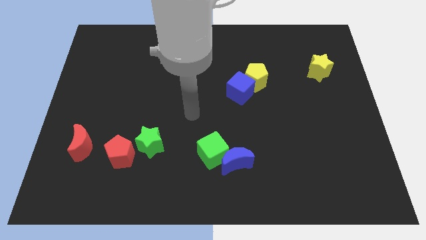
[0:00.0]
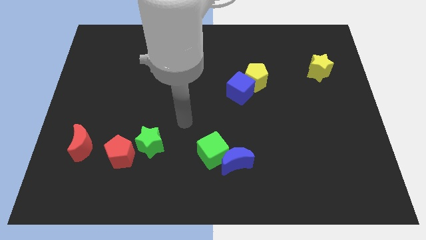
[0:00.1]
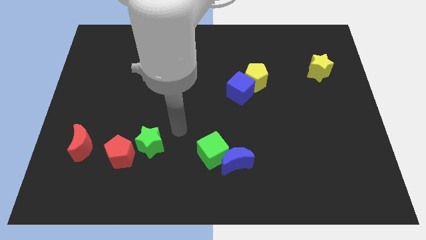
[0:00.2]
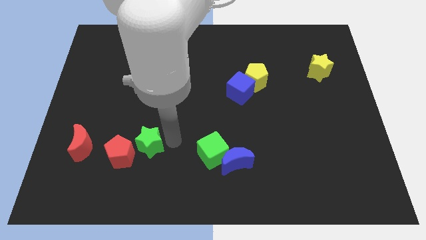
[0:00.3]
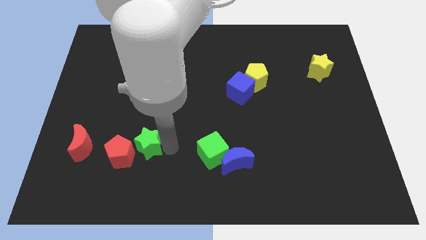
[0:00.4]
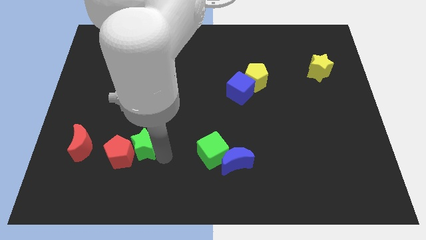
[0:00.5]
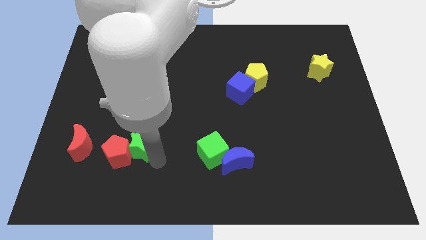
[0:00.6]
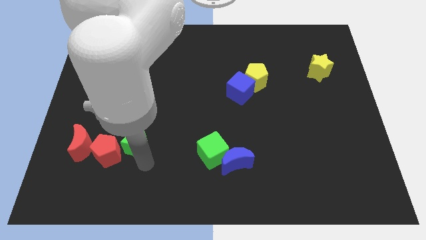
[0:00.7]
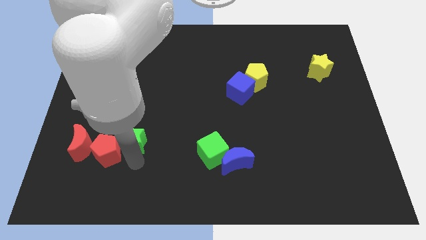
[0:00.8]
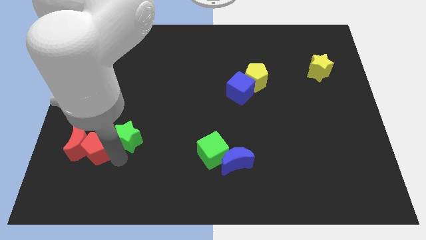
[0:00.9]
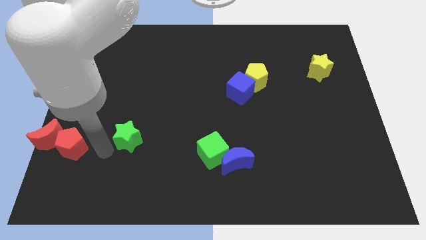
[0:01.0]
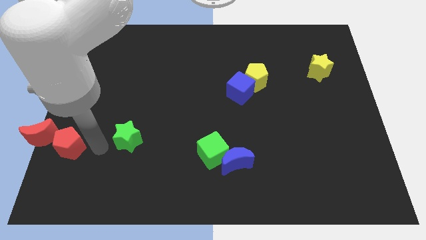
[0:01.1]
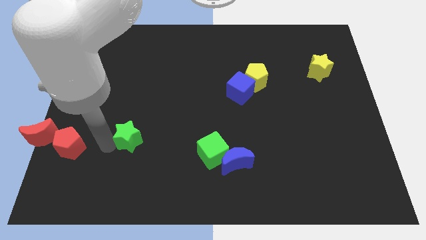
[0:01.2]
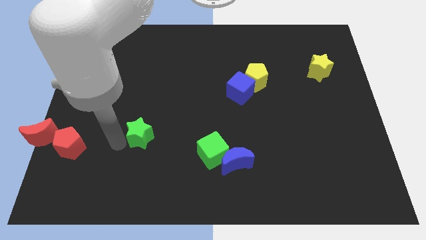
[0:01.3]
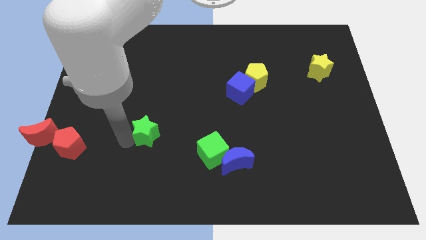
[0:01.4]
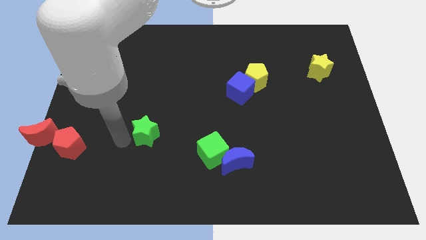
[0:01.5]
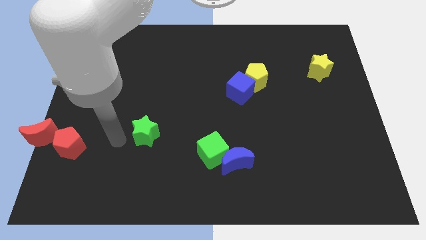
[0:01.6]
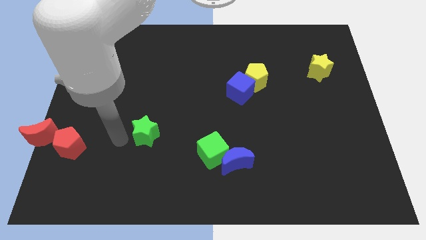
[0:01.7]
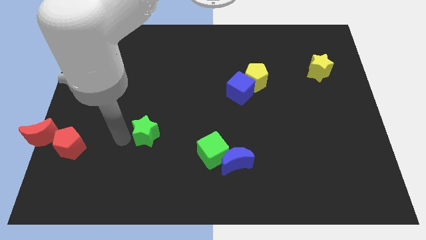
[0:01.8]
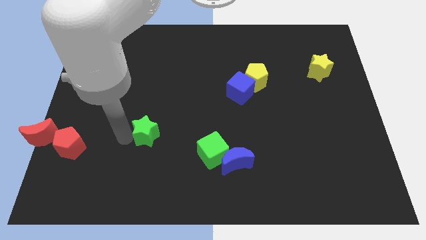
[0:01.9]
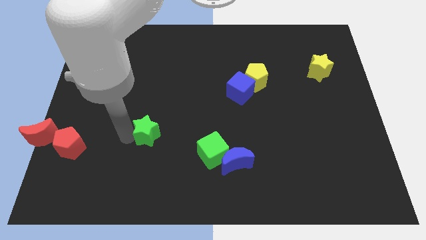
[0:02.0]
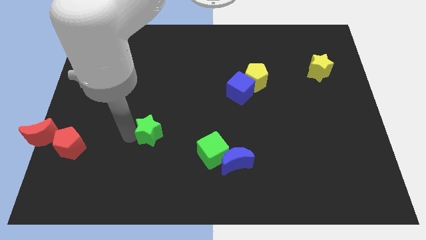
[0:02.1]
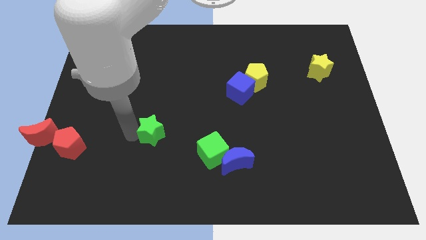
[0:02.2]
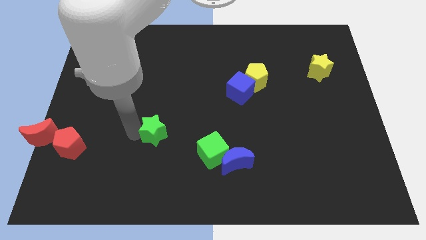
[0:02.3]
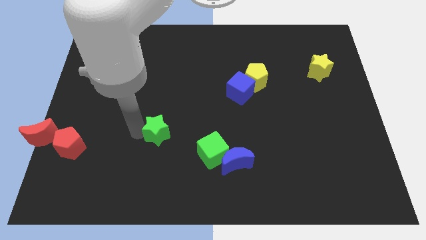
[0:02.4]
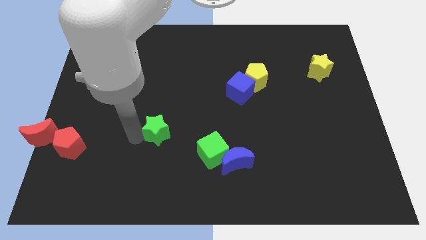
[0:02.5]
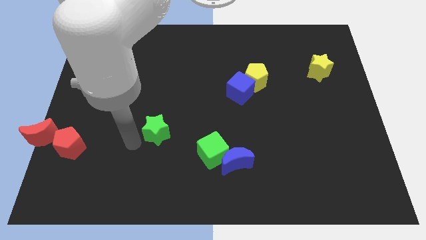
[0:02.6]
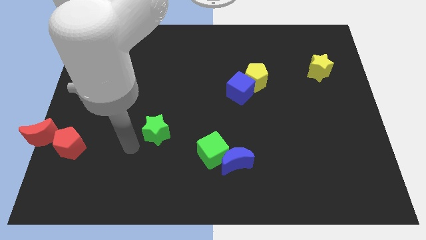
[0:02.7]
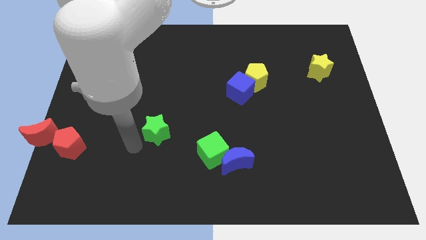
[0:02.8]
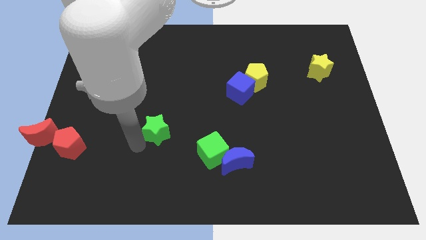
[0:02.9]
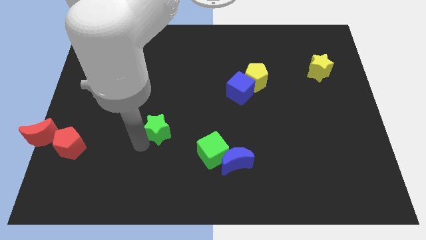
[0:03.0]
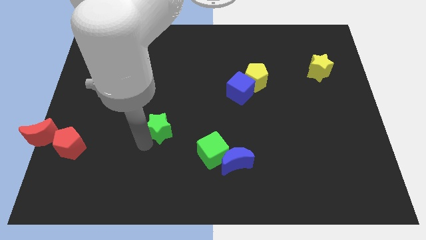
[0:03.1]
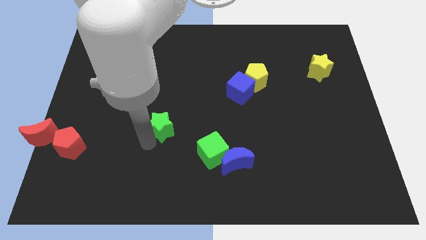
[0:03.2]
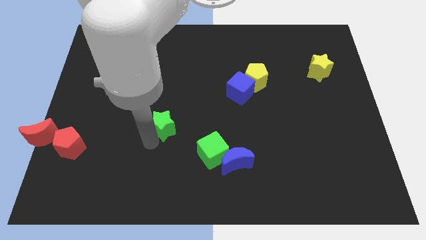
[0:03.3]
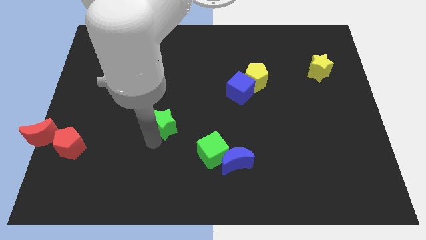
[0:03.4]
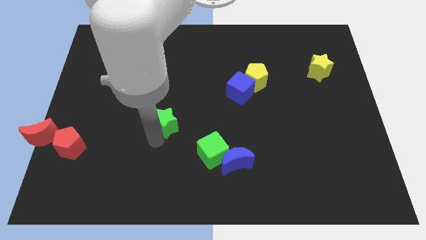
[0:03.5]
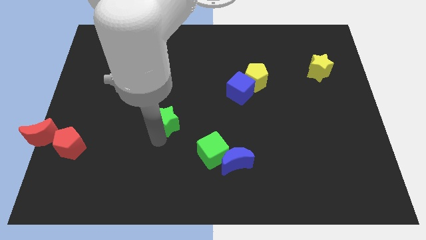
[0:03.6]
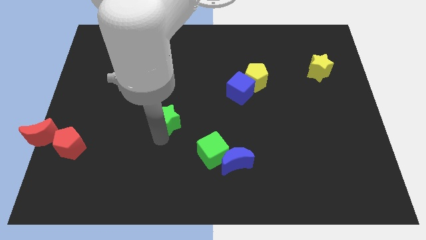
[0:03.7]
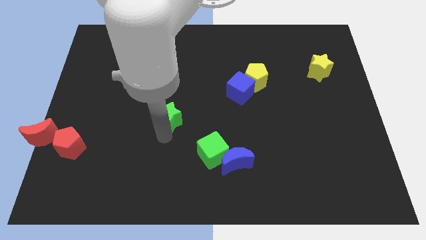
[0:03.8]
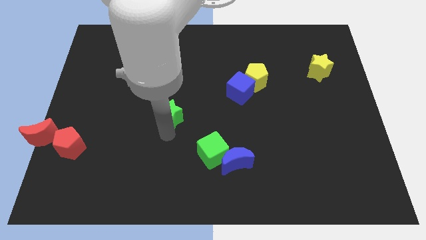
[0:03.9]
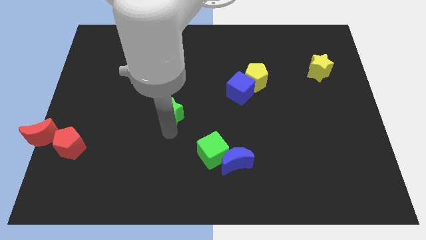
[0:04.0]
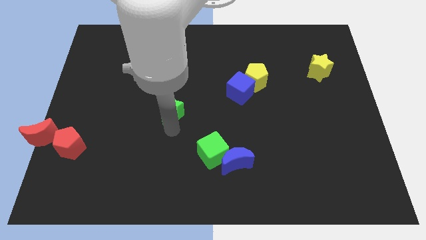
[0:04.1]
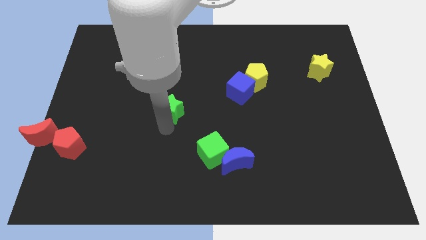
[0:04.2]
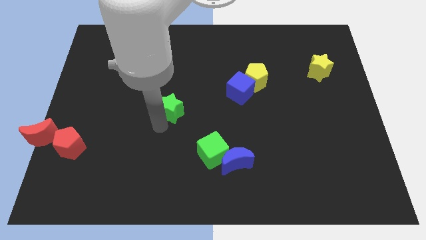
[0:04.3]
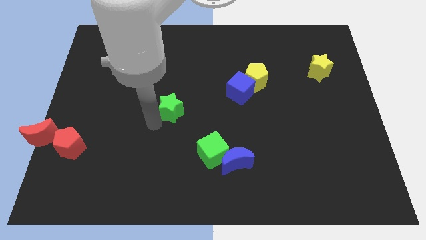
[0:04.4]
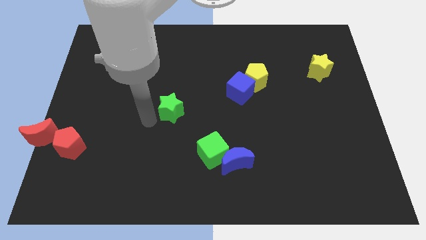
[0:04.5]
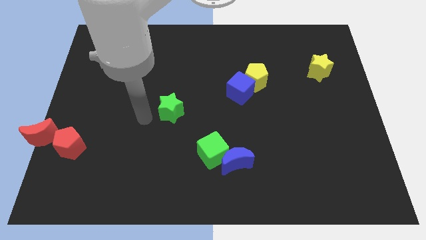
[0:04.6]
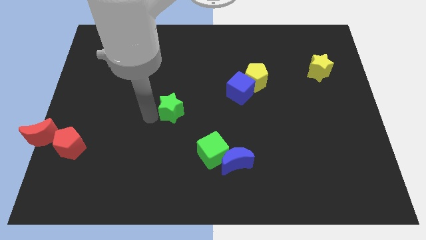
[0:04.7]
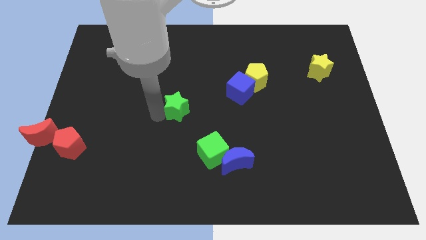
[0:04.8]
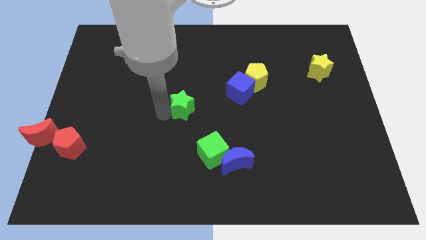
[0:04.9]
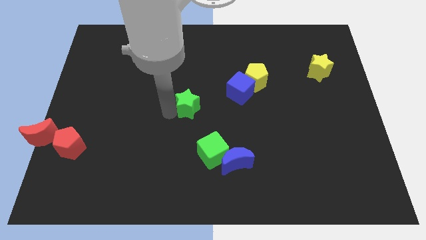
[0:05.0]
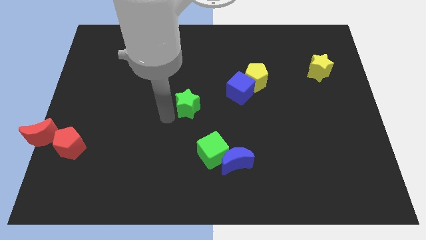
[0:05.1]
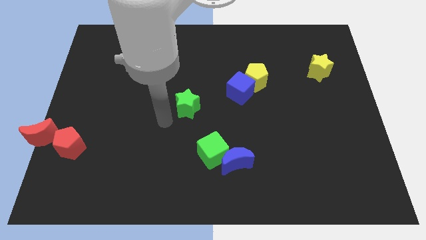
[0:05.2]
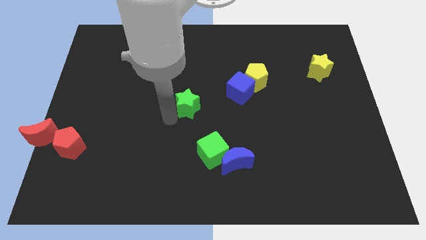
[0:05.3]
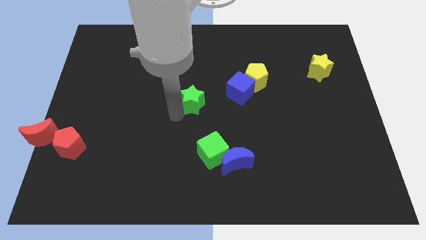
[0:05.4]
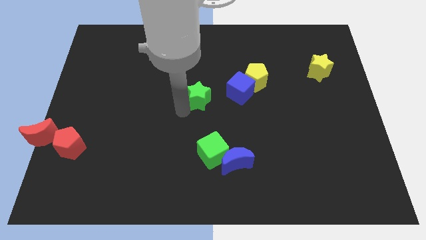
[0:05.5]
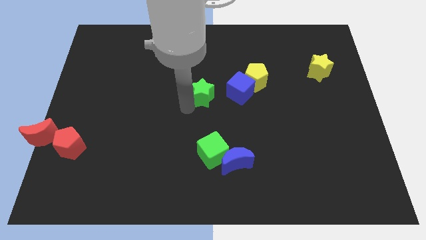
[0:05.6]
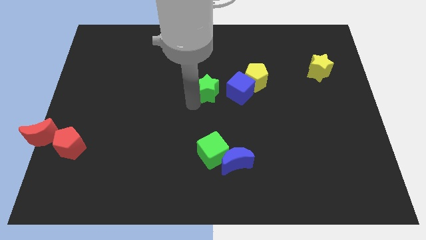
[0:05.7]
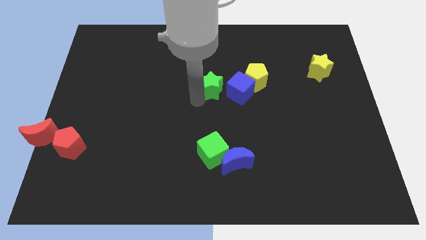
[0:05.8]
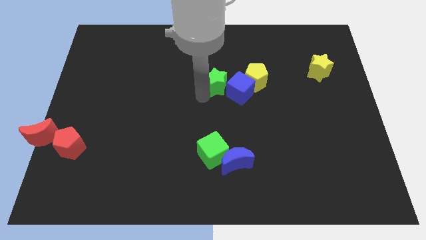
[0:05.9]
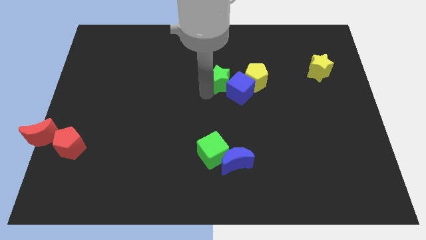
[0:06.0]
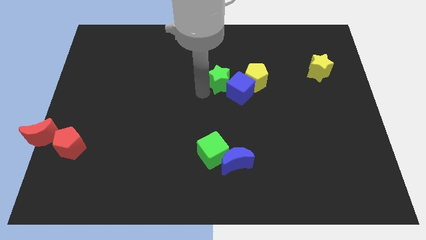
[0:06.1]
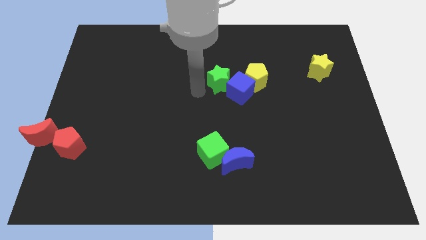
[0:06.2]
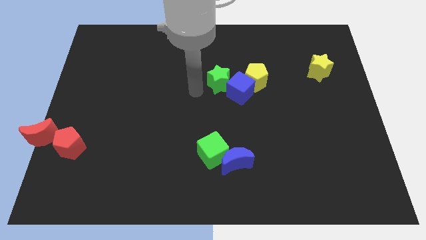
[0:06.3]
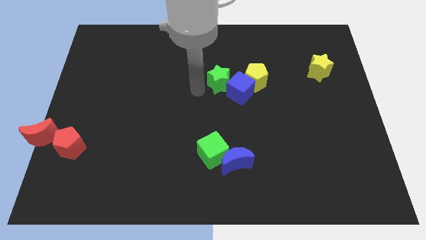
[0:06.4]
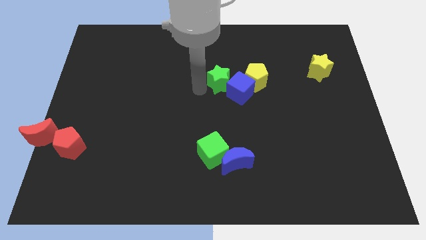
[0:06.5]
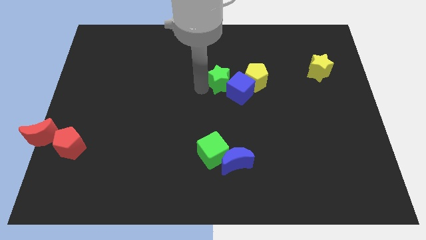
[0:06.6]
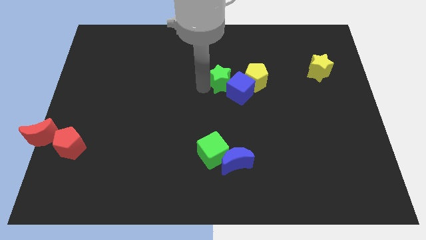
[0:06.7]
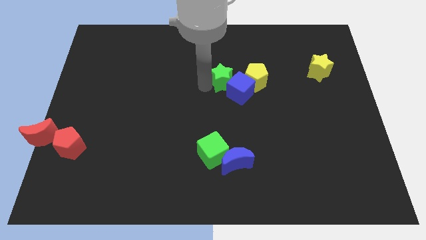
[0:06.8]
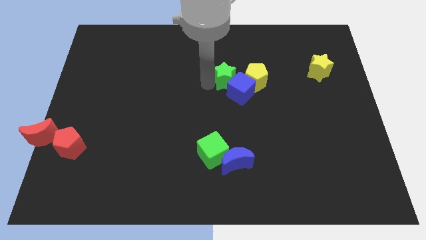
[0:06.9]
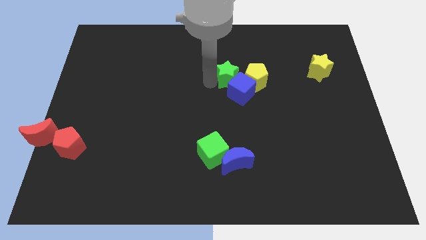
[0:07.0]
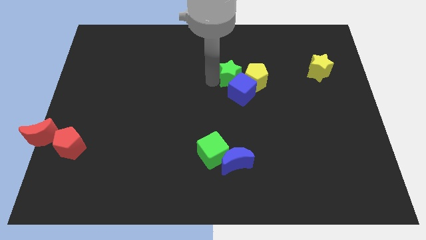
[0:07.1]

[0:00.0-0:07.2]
move the green star next to the yellow pentagon
